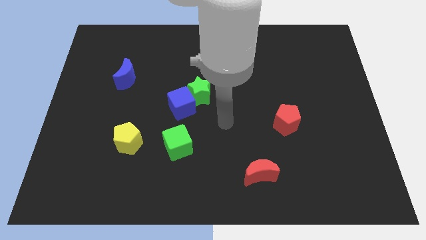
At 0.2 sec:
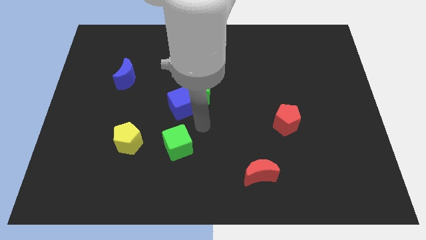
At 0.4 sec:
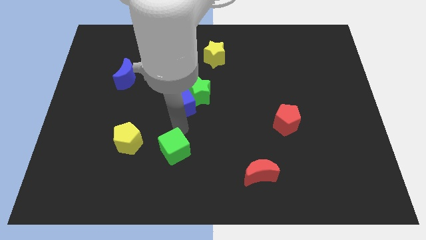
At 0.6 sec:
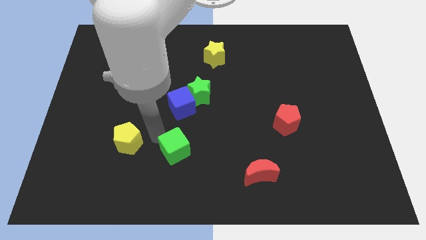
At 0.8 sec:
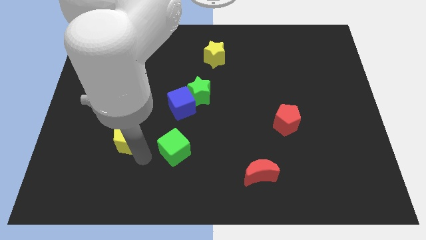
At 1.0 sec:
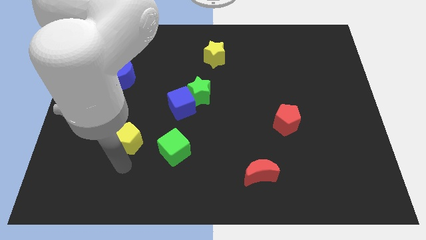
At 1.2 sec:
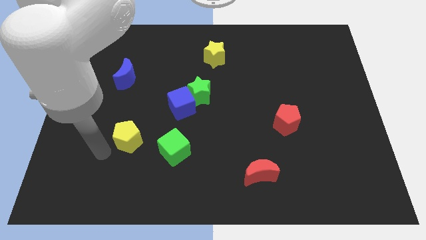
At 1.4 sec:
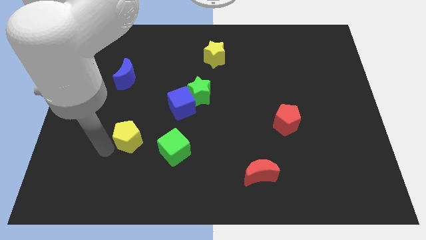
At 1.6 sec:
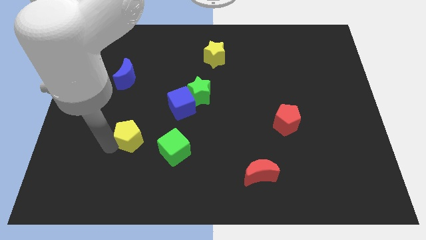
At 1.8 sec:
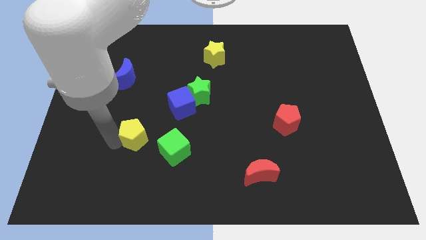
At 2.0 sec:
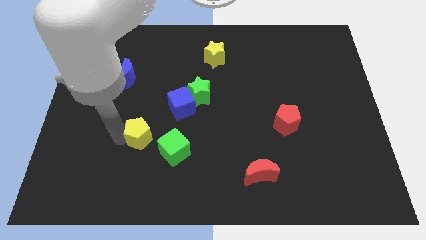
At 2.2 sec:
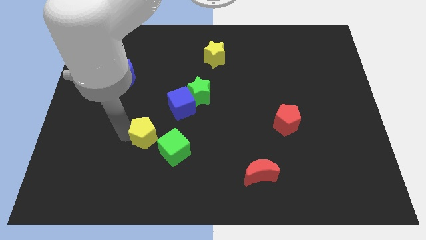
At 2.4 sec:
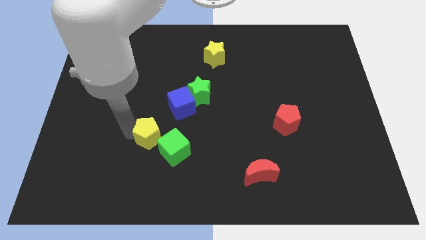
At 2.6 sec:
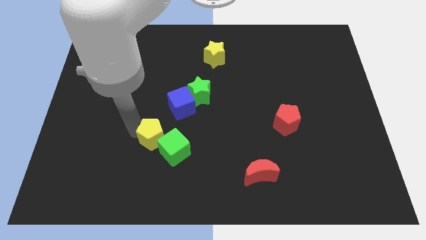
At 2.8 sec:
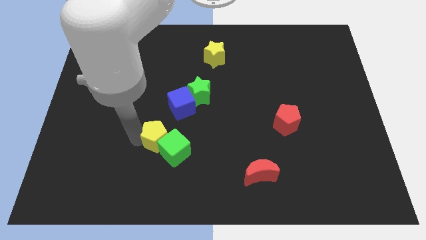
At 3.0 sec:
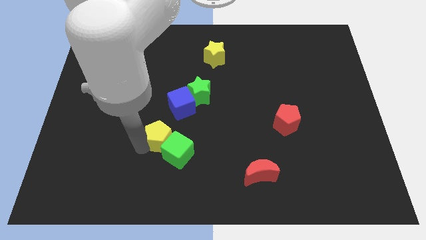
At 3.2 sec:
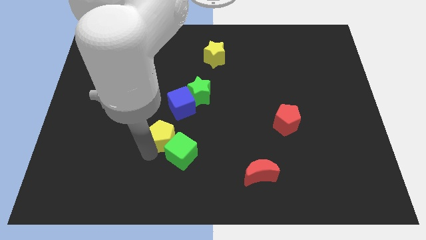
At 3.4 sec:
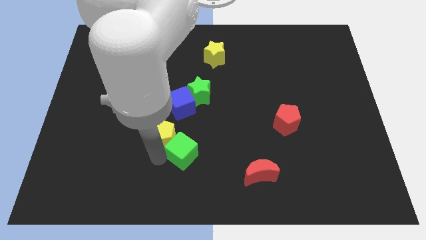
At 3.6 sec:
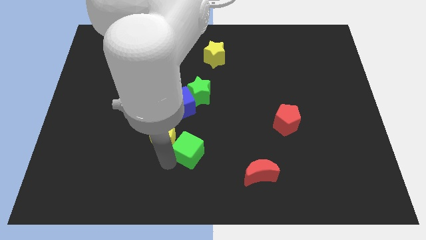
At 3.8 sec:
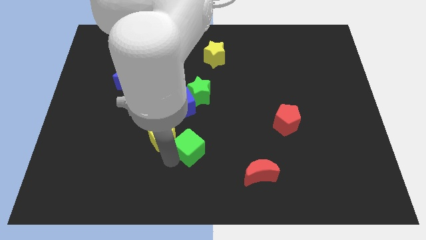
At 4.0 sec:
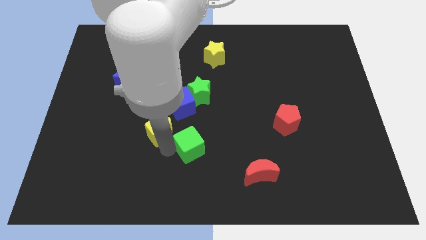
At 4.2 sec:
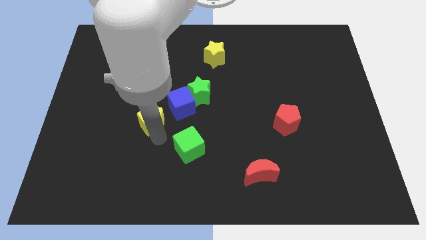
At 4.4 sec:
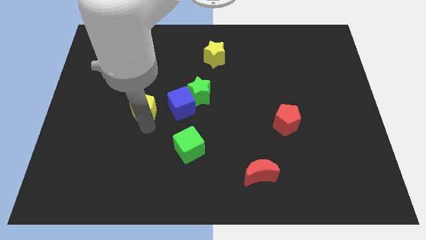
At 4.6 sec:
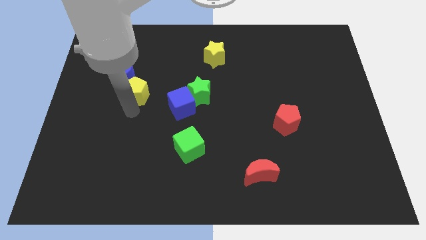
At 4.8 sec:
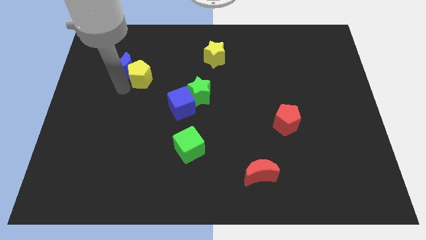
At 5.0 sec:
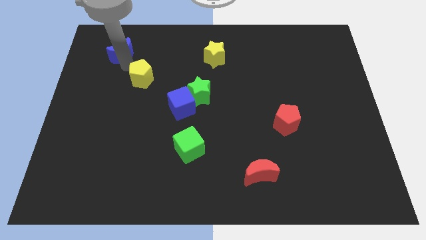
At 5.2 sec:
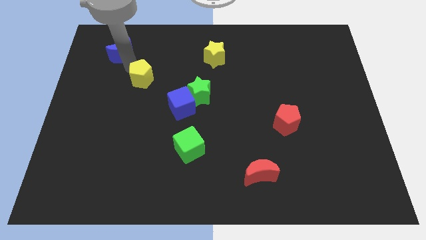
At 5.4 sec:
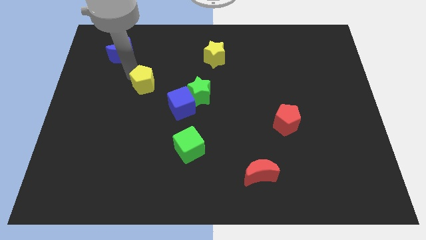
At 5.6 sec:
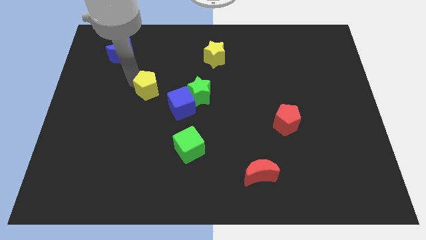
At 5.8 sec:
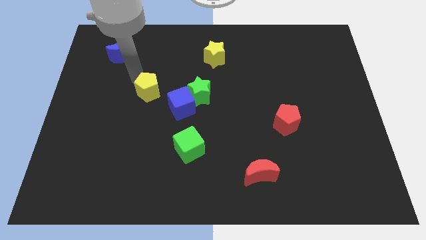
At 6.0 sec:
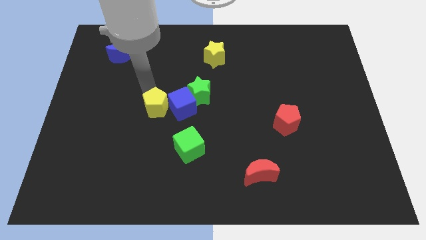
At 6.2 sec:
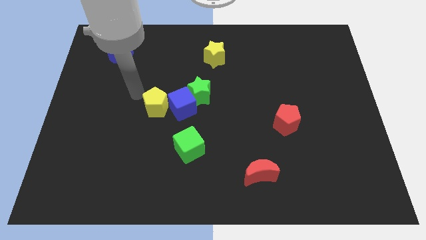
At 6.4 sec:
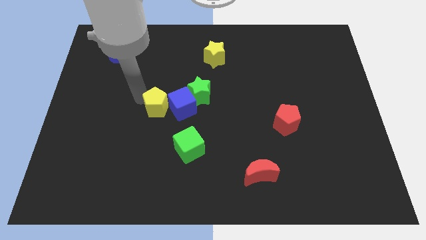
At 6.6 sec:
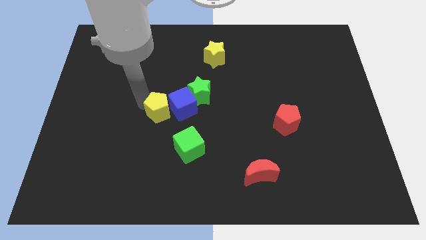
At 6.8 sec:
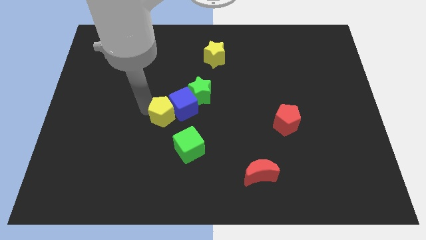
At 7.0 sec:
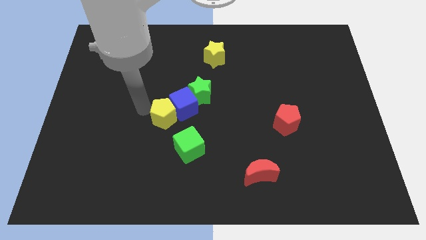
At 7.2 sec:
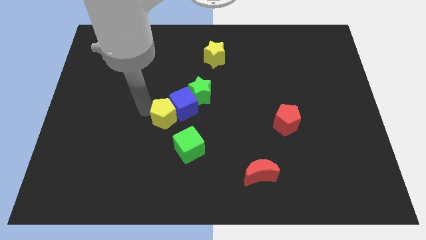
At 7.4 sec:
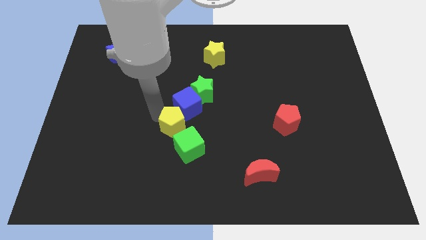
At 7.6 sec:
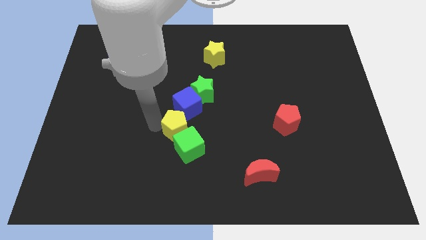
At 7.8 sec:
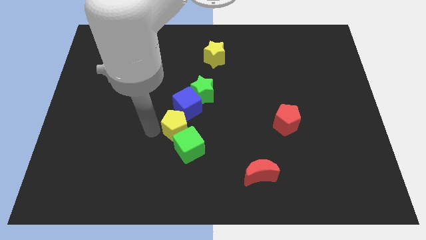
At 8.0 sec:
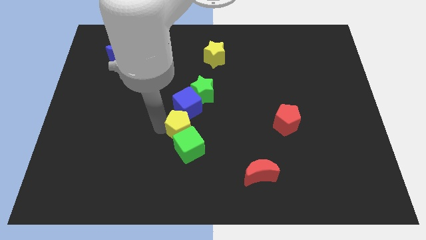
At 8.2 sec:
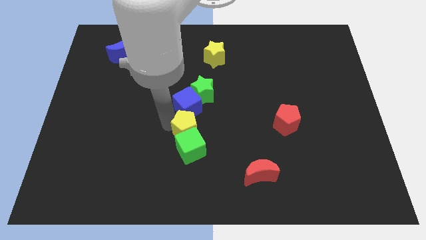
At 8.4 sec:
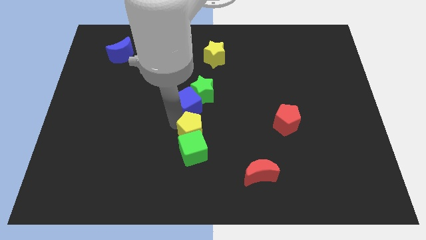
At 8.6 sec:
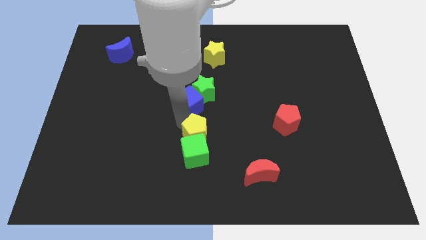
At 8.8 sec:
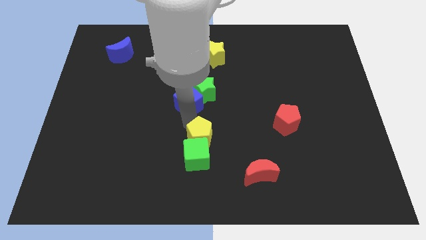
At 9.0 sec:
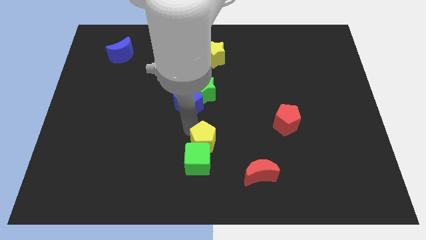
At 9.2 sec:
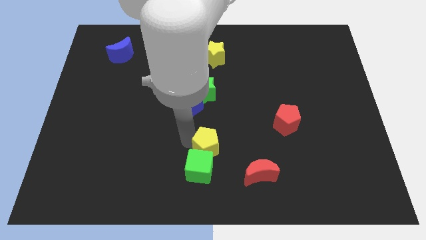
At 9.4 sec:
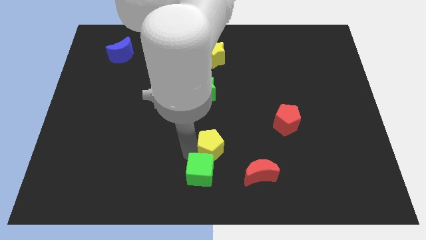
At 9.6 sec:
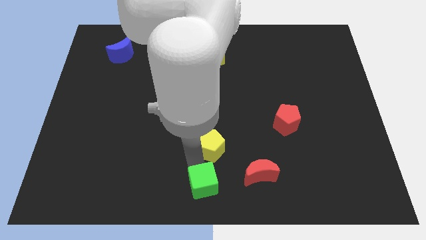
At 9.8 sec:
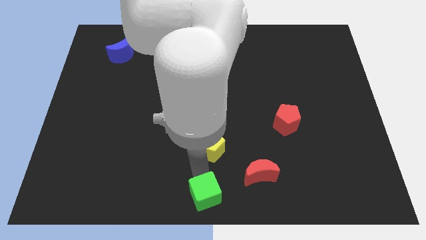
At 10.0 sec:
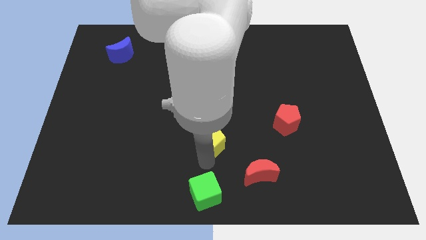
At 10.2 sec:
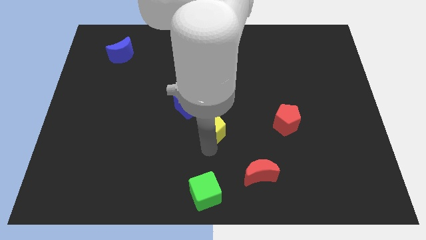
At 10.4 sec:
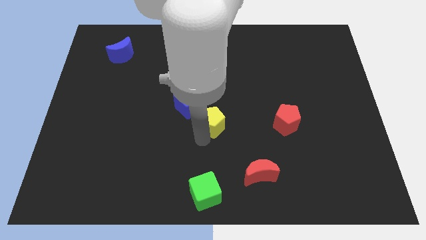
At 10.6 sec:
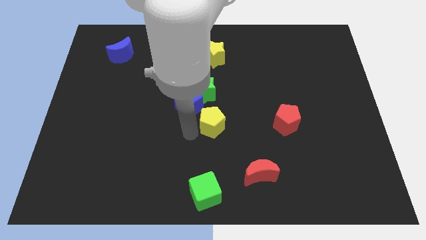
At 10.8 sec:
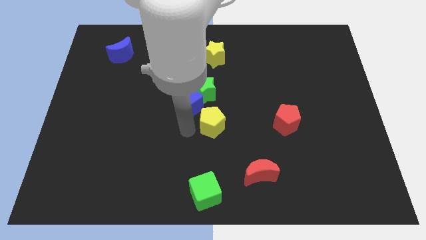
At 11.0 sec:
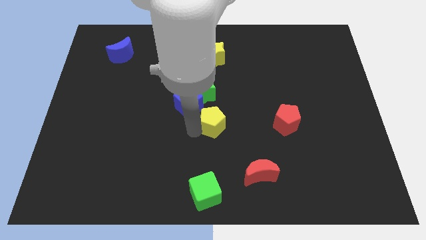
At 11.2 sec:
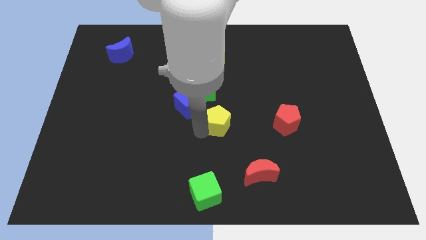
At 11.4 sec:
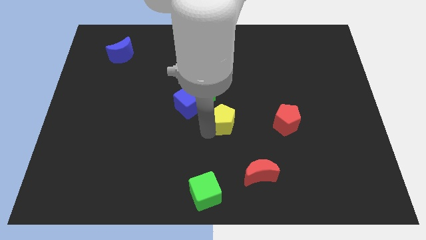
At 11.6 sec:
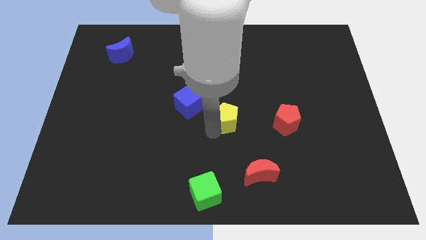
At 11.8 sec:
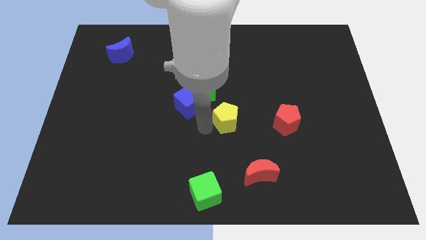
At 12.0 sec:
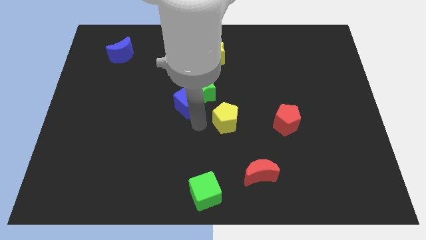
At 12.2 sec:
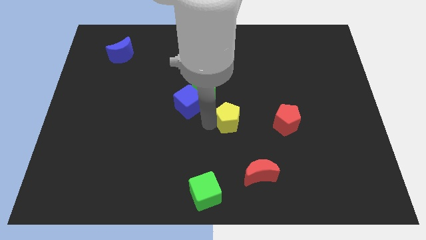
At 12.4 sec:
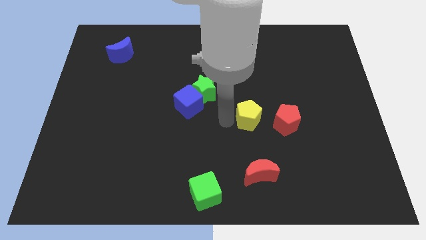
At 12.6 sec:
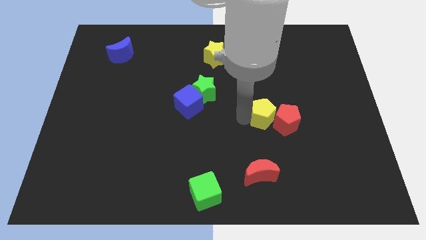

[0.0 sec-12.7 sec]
push the yellow pentagon towards the red pentagon

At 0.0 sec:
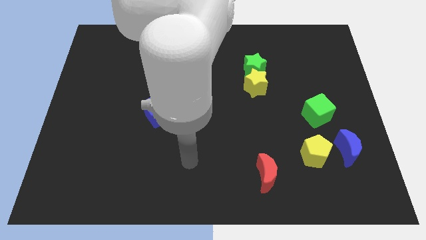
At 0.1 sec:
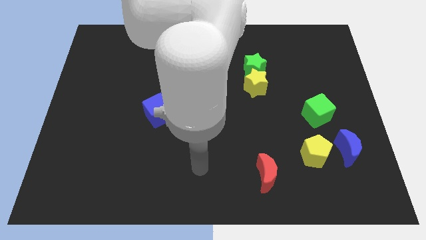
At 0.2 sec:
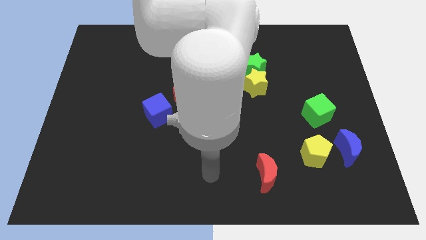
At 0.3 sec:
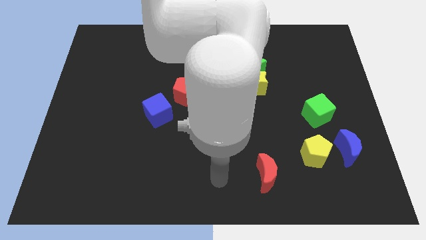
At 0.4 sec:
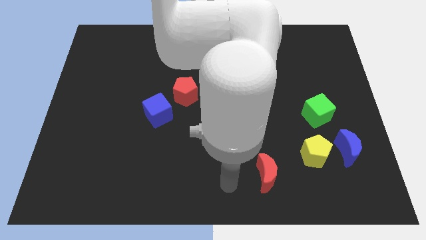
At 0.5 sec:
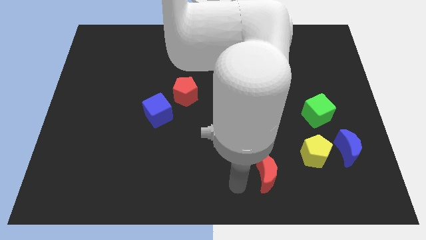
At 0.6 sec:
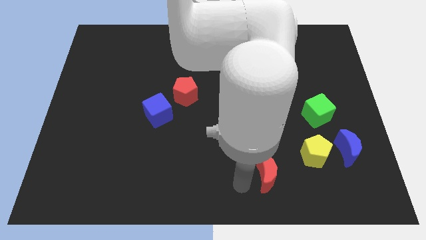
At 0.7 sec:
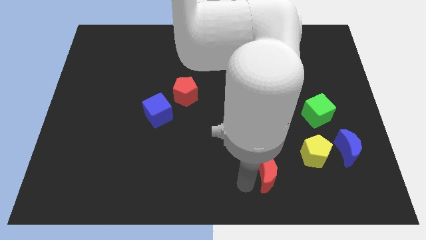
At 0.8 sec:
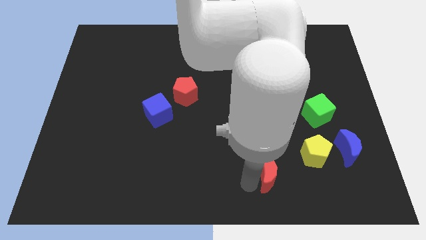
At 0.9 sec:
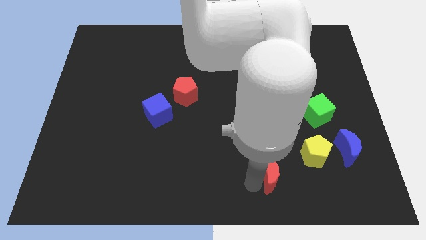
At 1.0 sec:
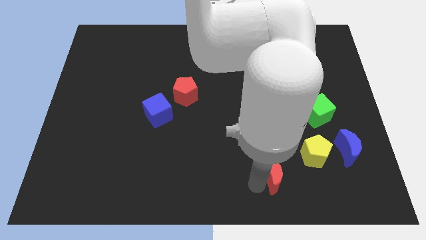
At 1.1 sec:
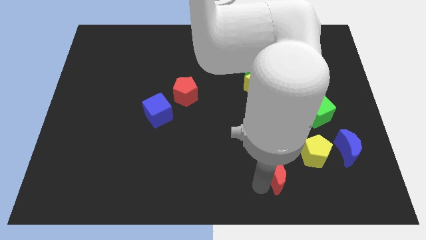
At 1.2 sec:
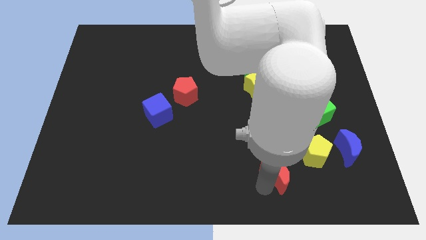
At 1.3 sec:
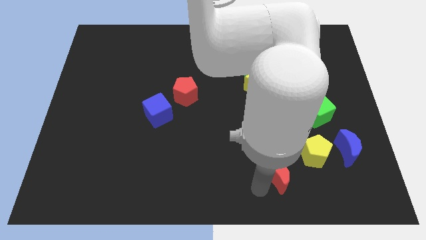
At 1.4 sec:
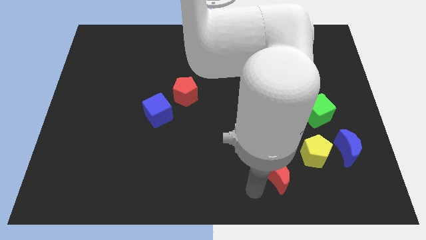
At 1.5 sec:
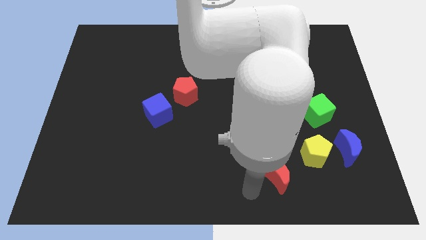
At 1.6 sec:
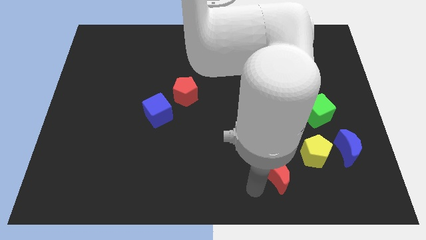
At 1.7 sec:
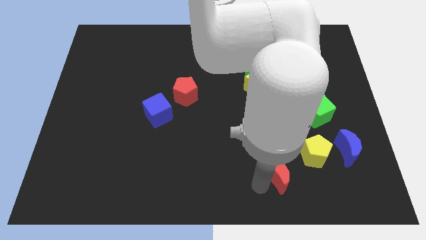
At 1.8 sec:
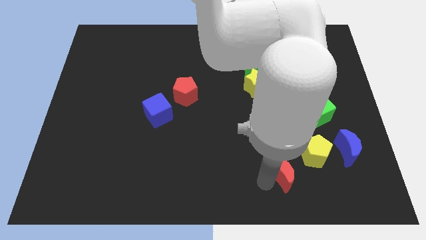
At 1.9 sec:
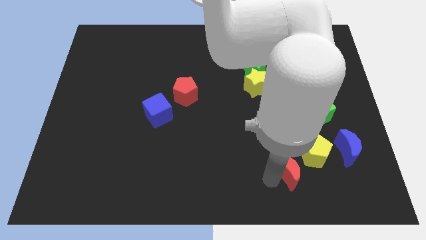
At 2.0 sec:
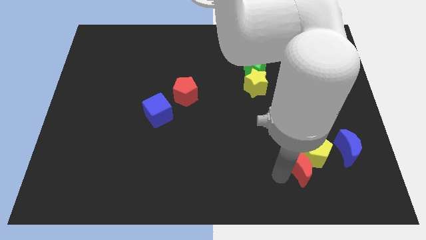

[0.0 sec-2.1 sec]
slide the red moon towards the yellow pentagon
